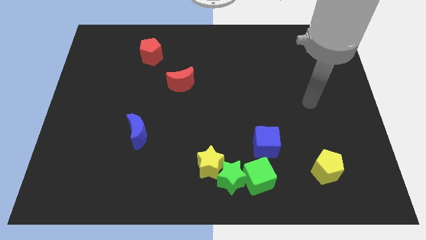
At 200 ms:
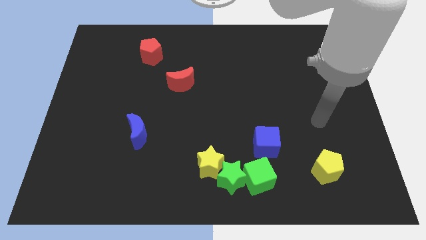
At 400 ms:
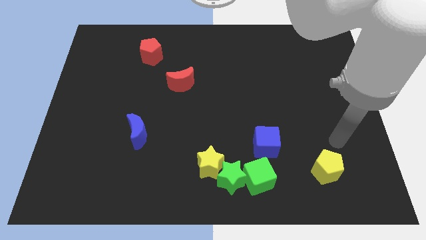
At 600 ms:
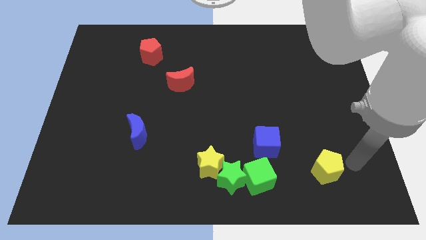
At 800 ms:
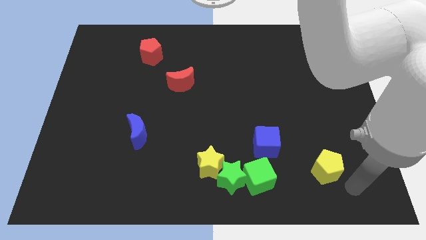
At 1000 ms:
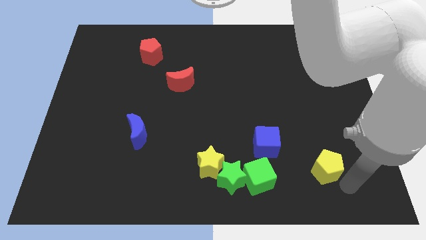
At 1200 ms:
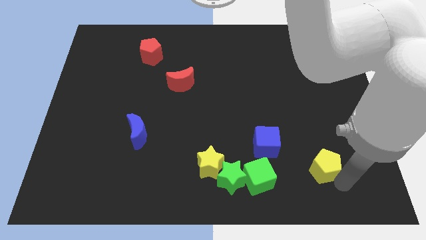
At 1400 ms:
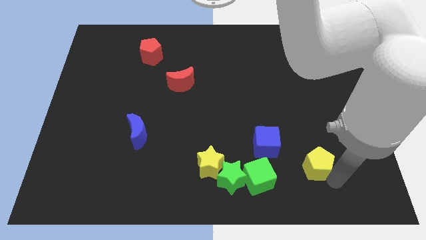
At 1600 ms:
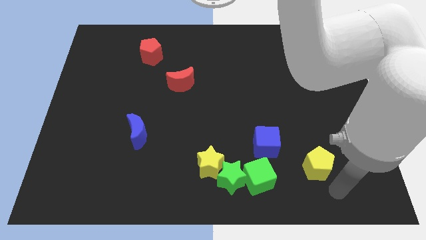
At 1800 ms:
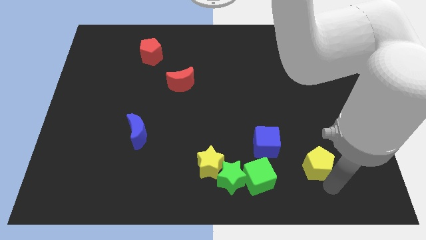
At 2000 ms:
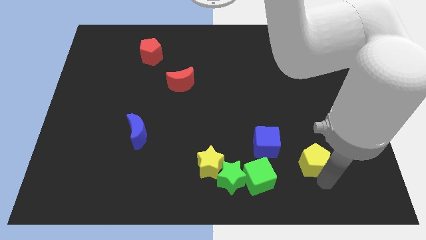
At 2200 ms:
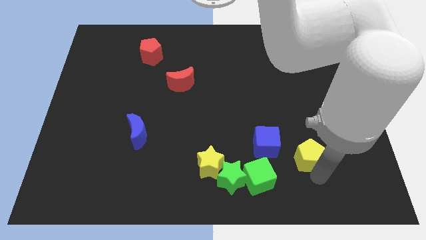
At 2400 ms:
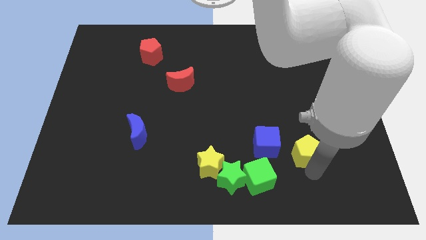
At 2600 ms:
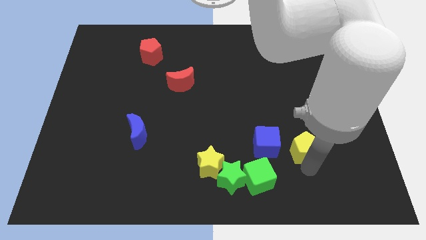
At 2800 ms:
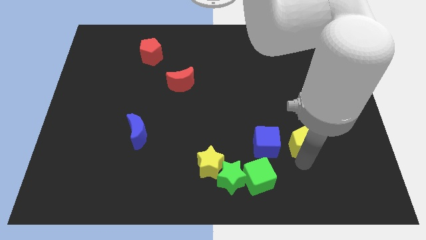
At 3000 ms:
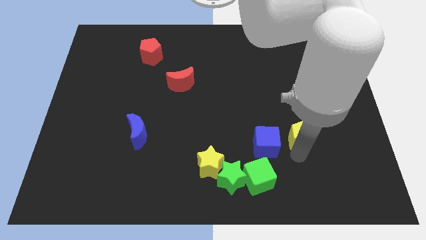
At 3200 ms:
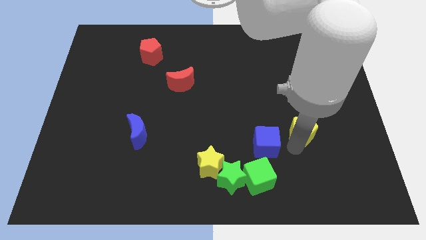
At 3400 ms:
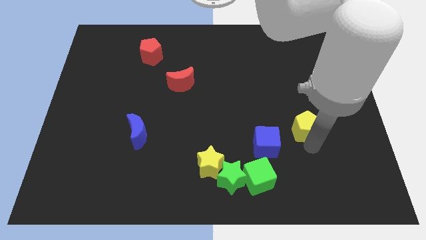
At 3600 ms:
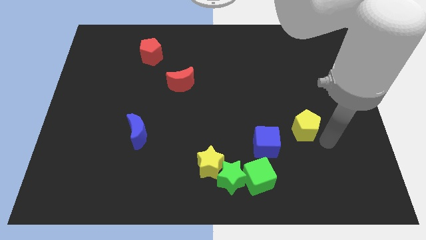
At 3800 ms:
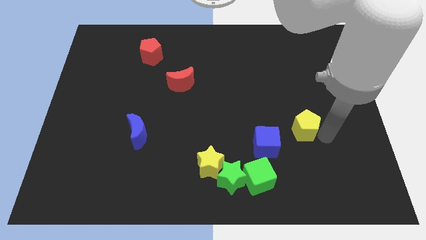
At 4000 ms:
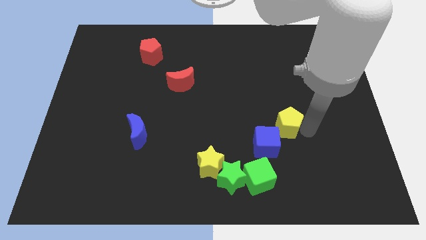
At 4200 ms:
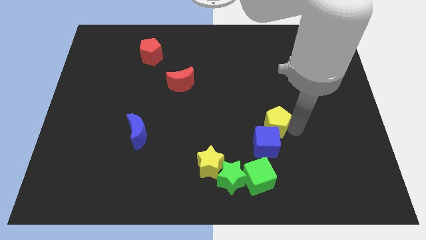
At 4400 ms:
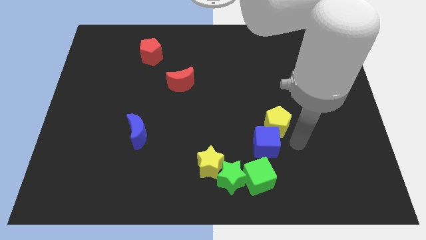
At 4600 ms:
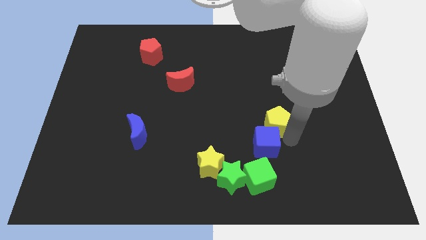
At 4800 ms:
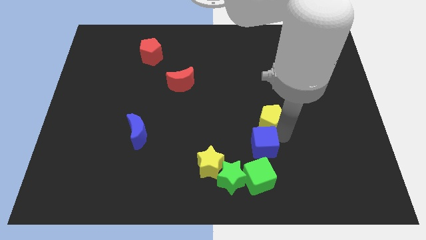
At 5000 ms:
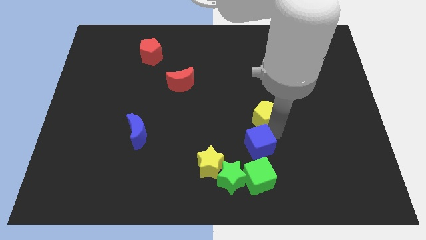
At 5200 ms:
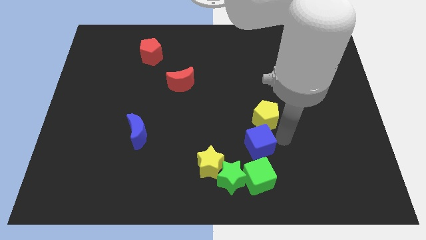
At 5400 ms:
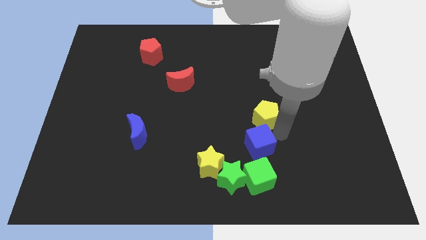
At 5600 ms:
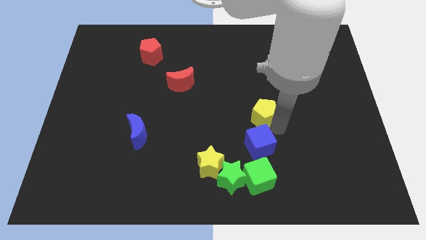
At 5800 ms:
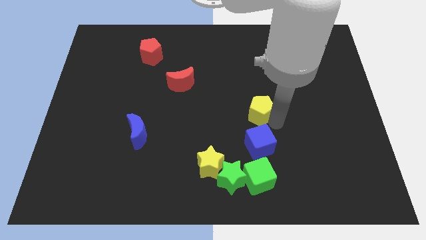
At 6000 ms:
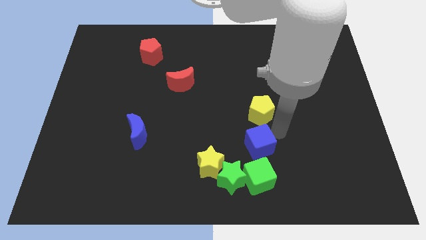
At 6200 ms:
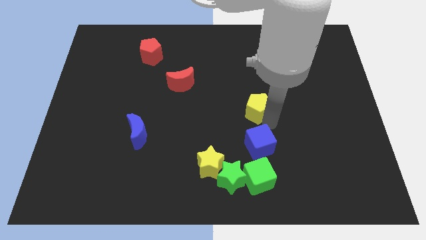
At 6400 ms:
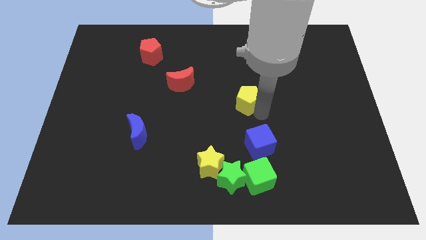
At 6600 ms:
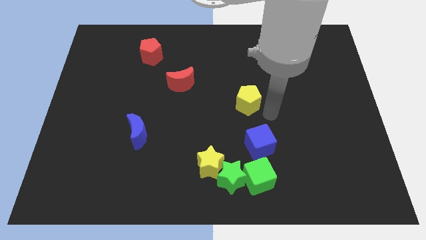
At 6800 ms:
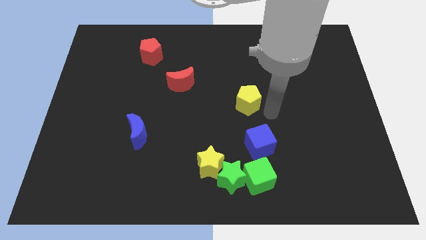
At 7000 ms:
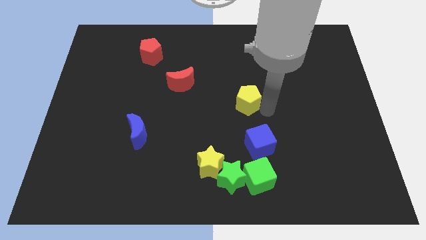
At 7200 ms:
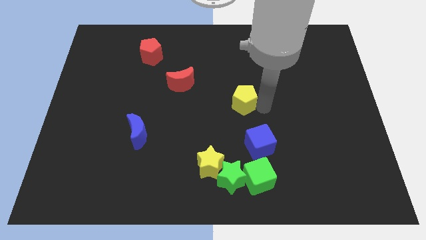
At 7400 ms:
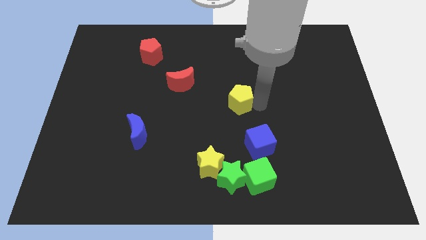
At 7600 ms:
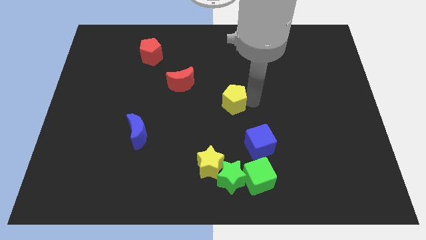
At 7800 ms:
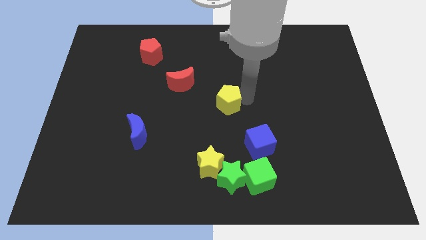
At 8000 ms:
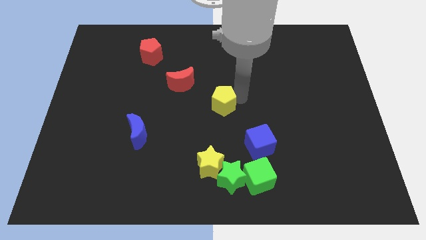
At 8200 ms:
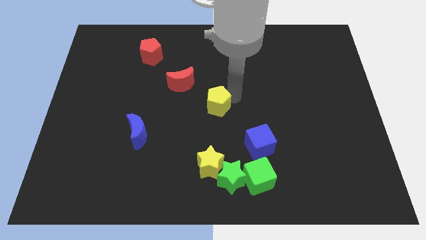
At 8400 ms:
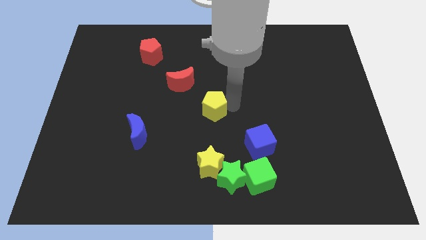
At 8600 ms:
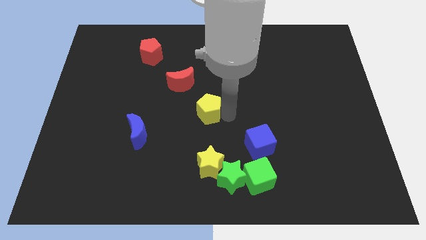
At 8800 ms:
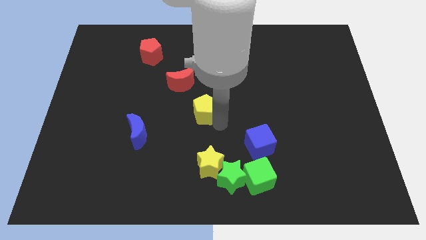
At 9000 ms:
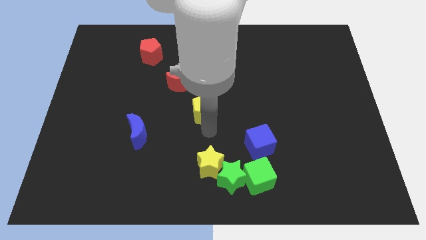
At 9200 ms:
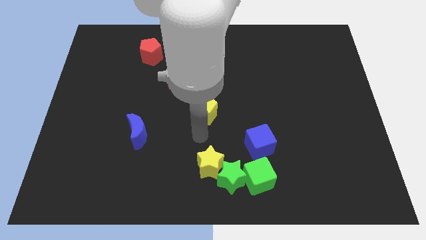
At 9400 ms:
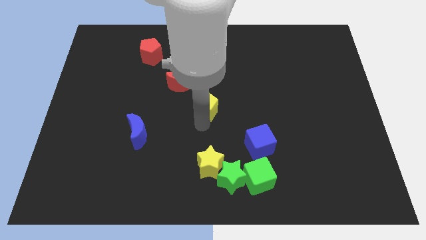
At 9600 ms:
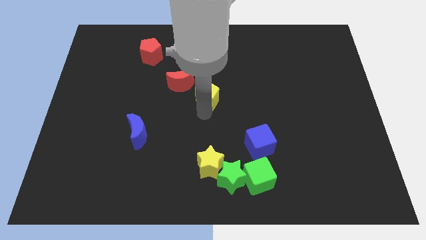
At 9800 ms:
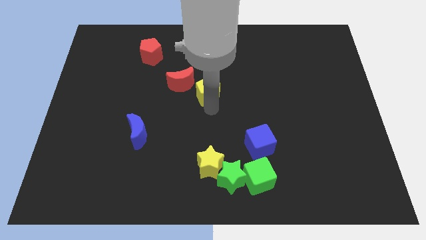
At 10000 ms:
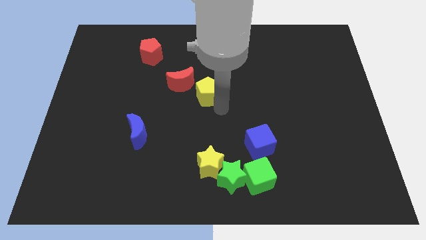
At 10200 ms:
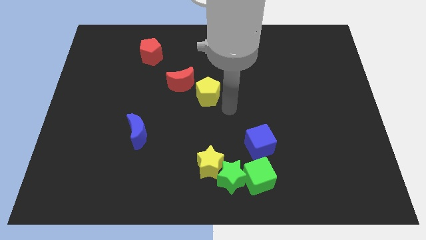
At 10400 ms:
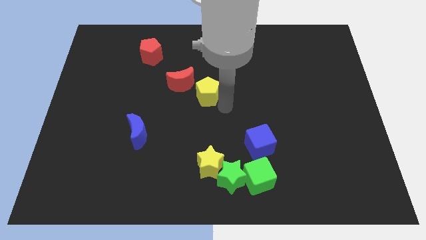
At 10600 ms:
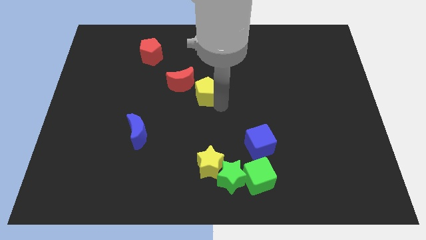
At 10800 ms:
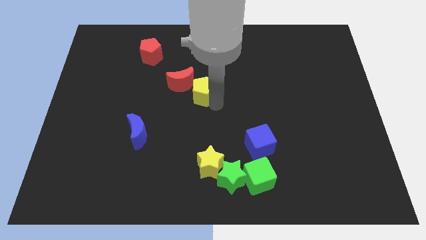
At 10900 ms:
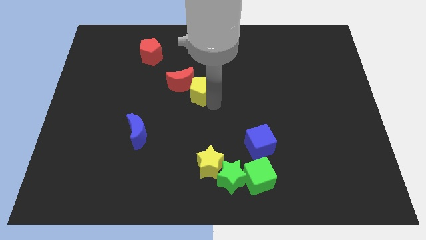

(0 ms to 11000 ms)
put the yellow pentagon close to the red moon

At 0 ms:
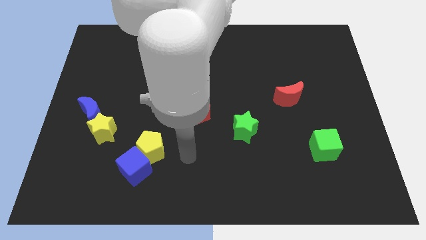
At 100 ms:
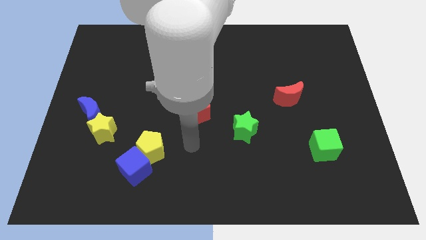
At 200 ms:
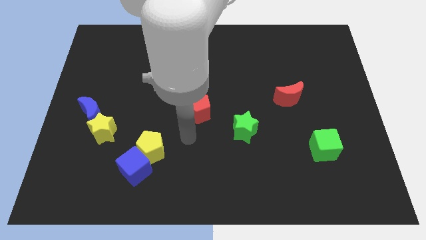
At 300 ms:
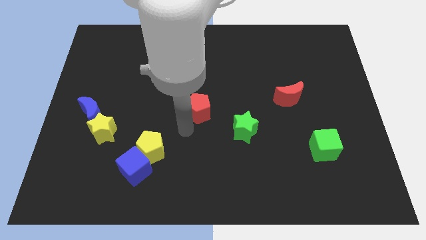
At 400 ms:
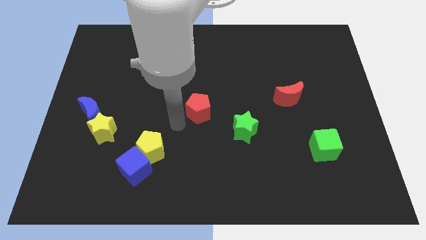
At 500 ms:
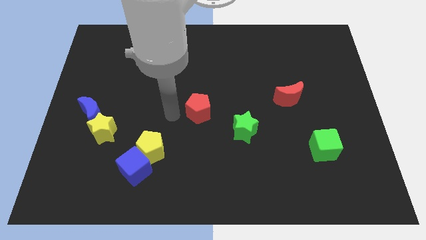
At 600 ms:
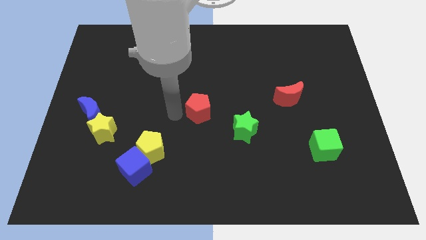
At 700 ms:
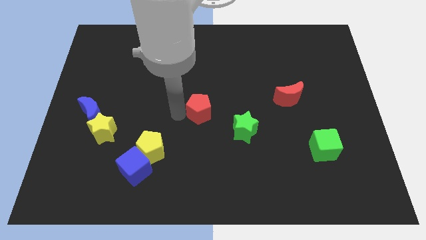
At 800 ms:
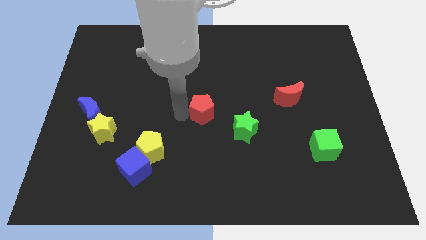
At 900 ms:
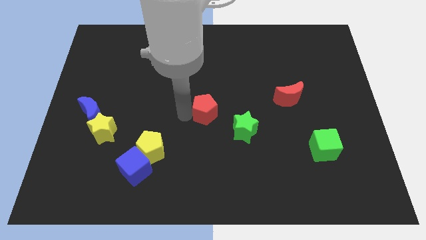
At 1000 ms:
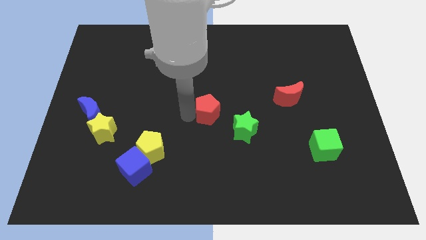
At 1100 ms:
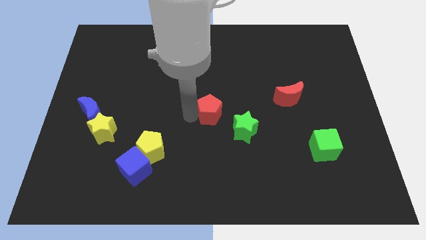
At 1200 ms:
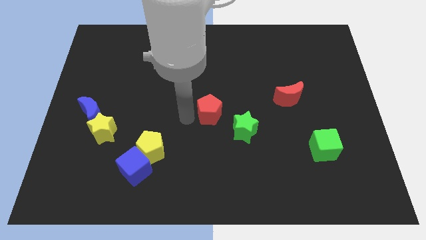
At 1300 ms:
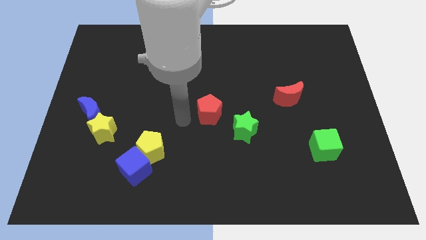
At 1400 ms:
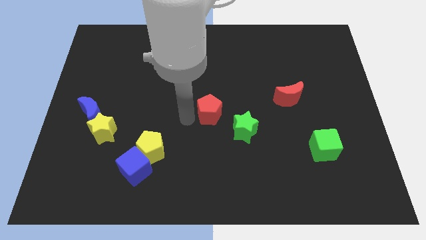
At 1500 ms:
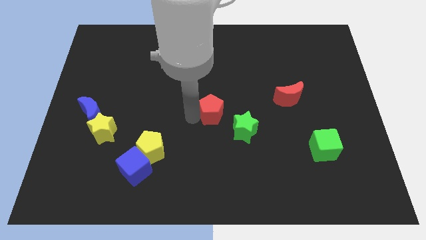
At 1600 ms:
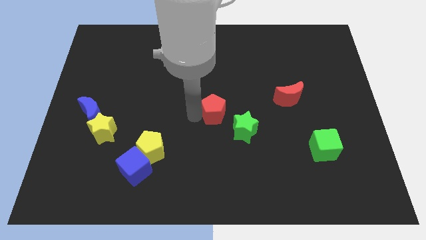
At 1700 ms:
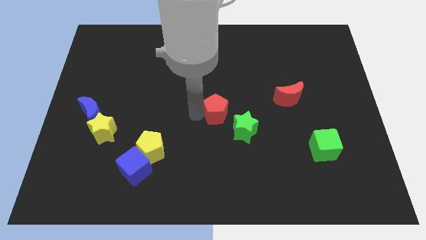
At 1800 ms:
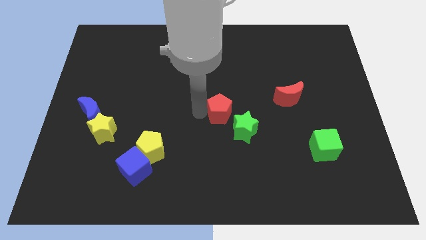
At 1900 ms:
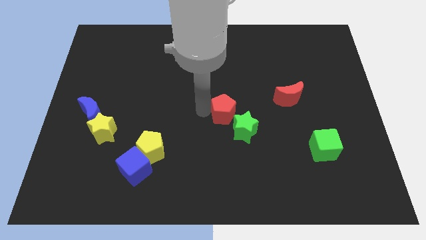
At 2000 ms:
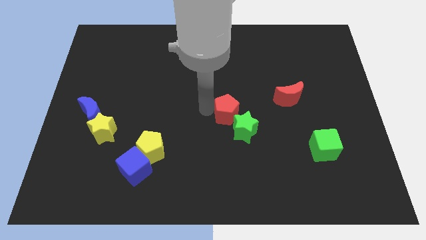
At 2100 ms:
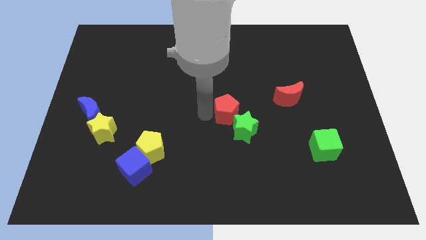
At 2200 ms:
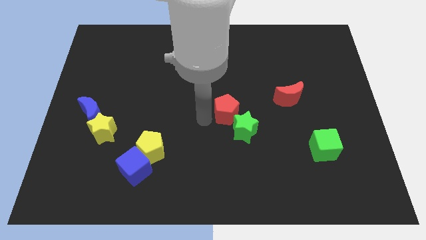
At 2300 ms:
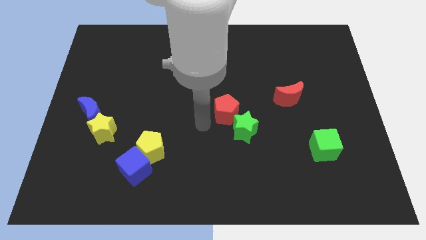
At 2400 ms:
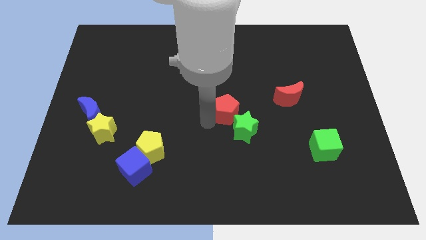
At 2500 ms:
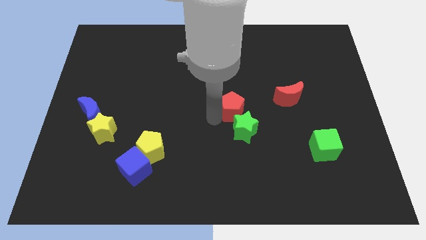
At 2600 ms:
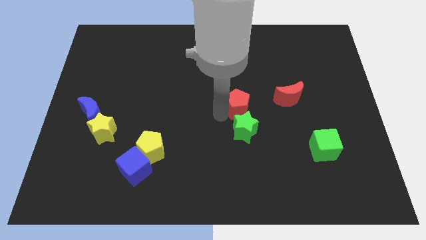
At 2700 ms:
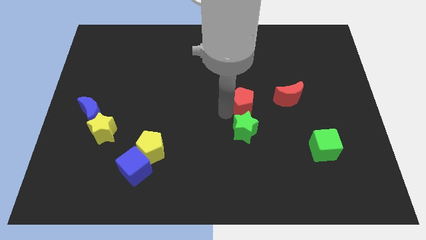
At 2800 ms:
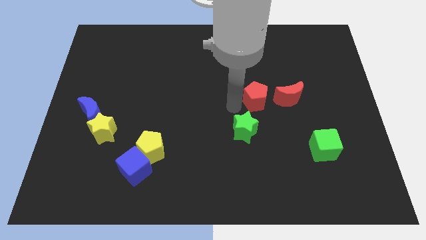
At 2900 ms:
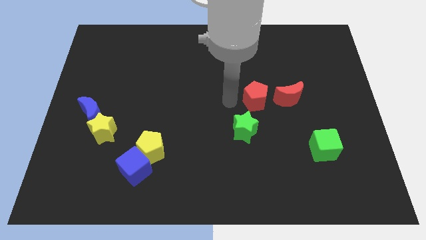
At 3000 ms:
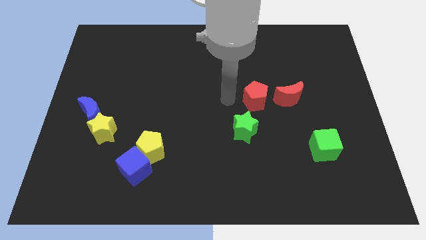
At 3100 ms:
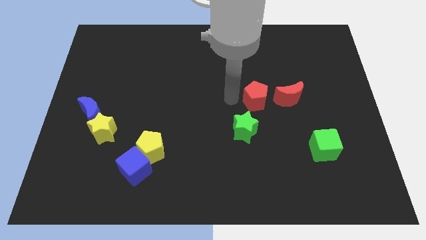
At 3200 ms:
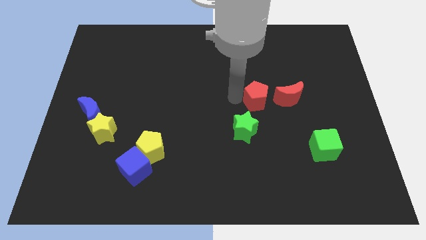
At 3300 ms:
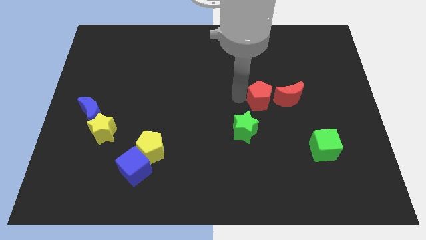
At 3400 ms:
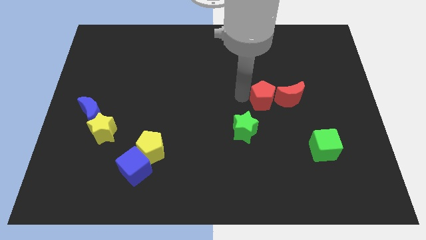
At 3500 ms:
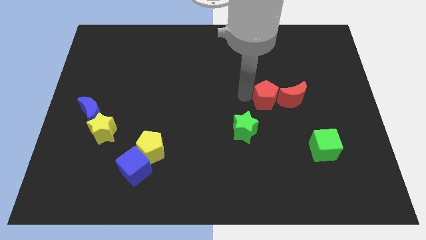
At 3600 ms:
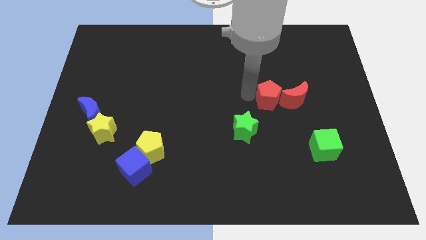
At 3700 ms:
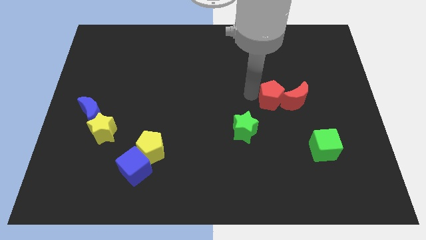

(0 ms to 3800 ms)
push the red pentagon close to the red moon
